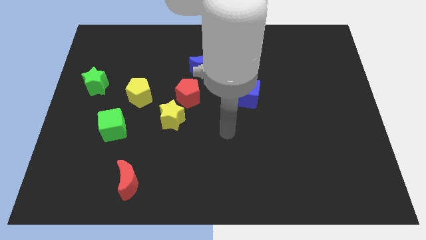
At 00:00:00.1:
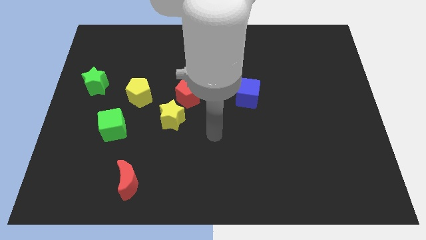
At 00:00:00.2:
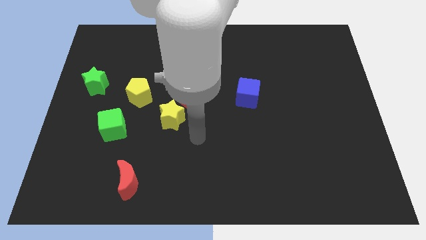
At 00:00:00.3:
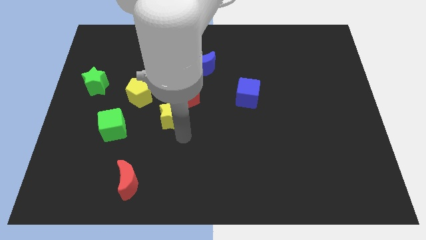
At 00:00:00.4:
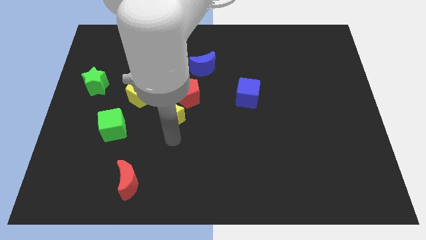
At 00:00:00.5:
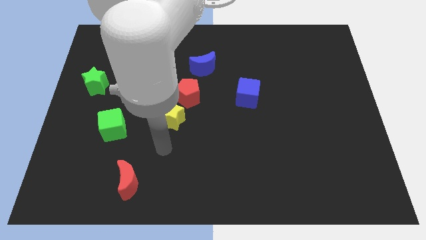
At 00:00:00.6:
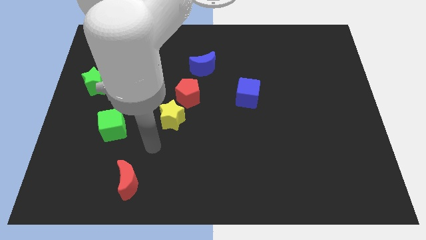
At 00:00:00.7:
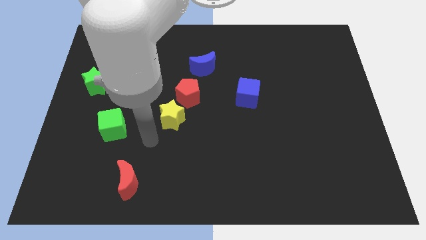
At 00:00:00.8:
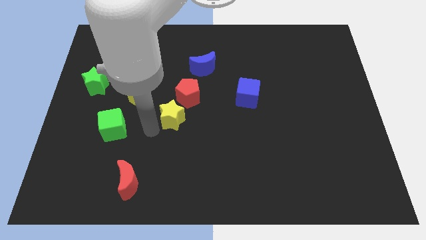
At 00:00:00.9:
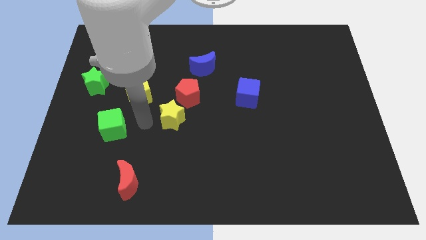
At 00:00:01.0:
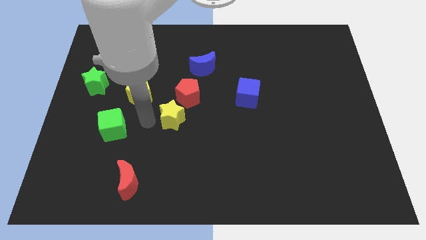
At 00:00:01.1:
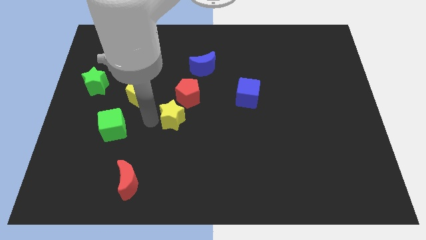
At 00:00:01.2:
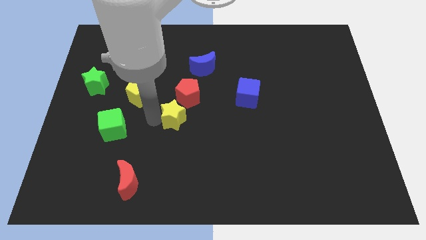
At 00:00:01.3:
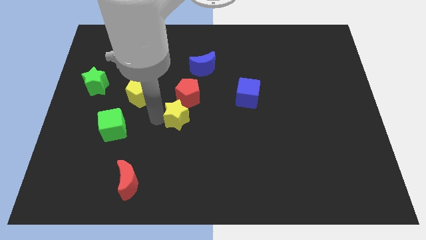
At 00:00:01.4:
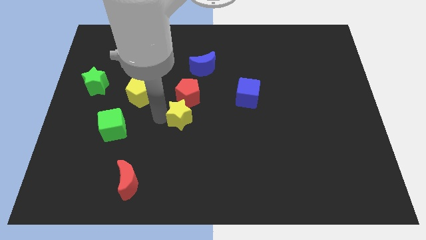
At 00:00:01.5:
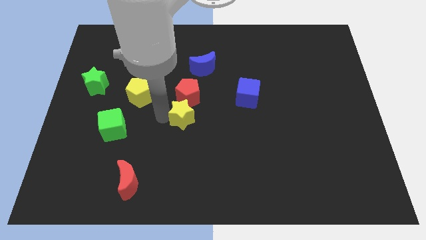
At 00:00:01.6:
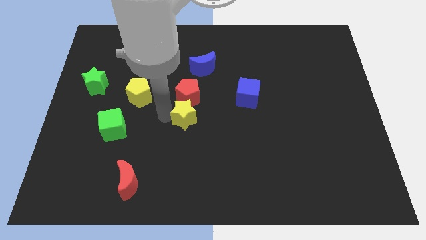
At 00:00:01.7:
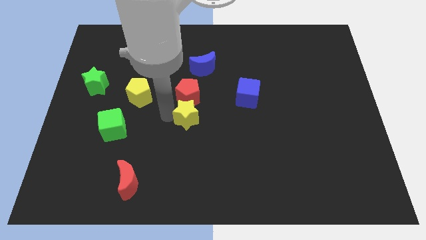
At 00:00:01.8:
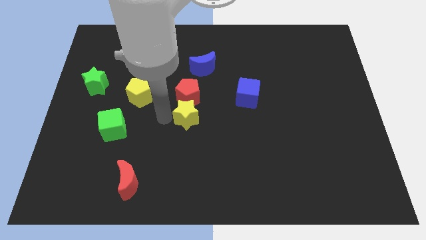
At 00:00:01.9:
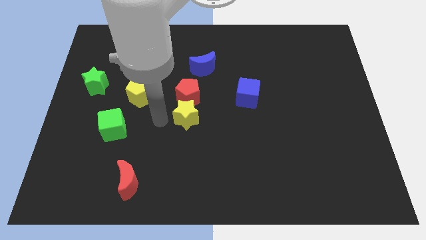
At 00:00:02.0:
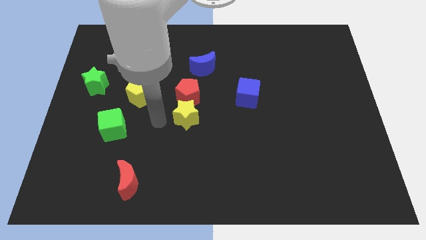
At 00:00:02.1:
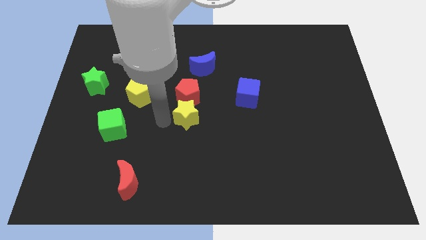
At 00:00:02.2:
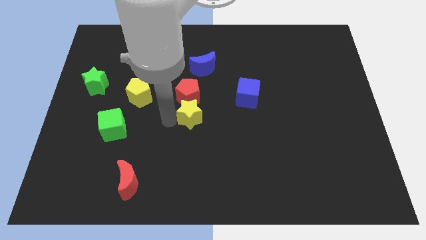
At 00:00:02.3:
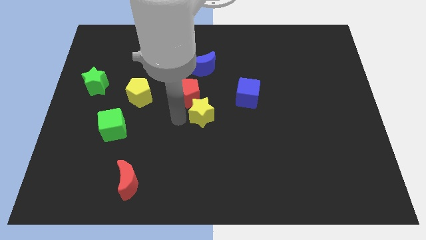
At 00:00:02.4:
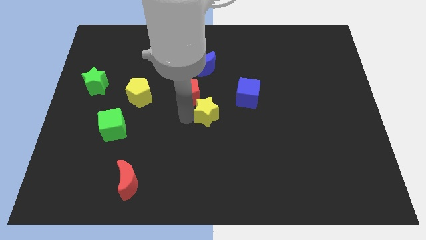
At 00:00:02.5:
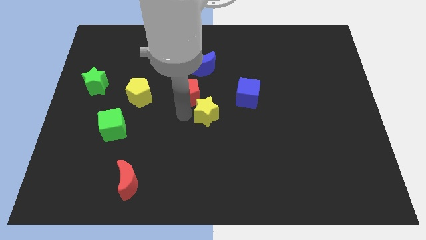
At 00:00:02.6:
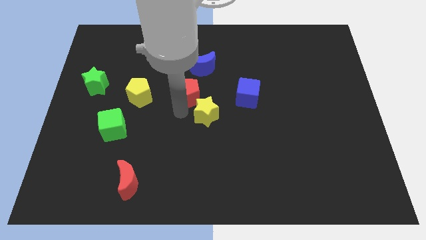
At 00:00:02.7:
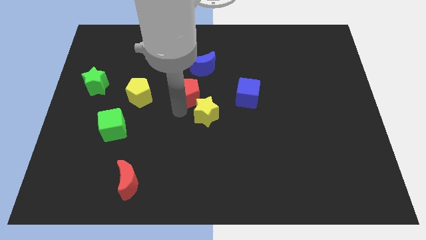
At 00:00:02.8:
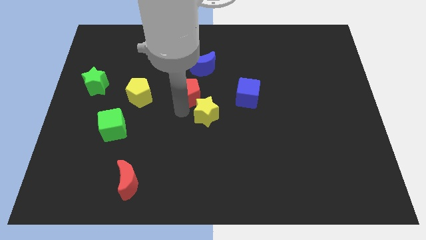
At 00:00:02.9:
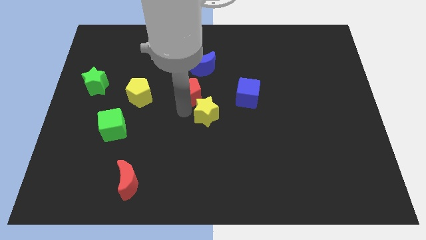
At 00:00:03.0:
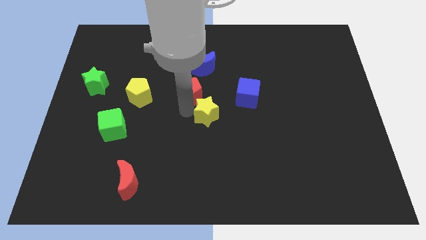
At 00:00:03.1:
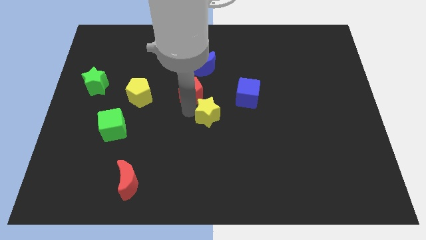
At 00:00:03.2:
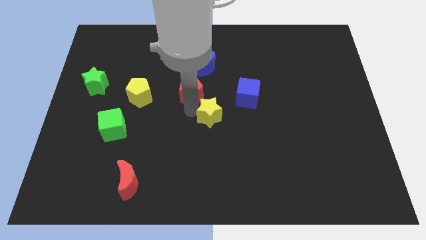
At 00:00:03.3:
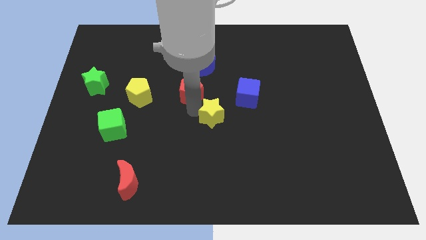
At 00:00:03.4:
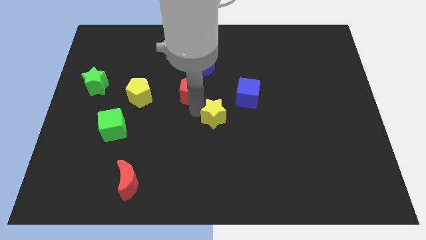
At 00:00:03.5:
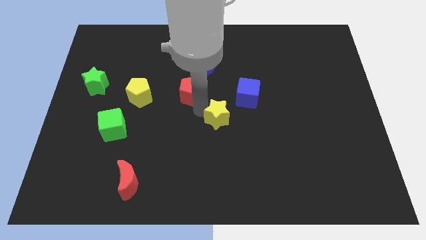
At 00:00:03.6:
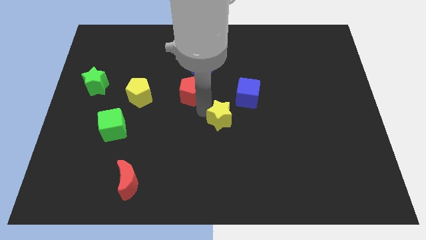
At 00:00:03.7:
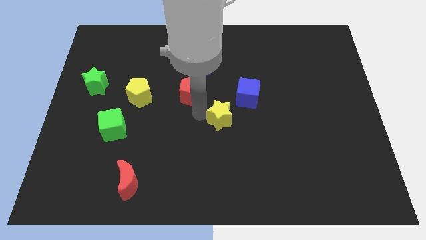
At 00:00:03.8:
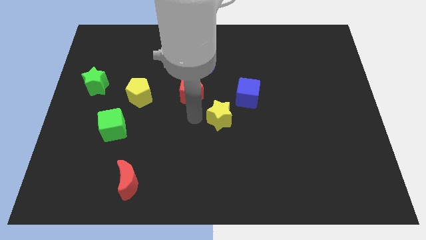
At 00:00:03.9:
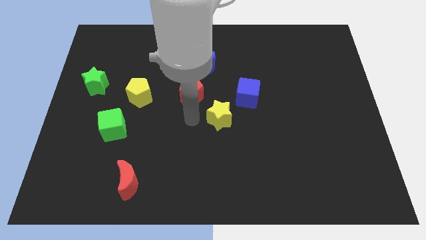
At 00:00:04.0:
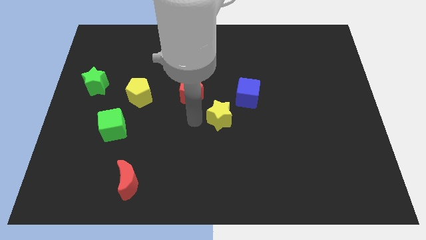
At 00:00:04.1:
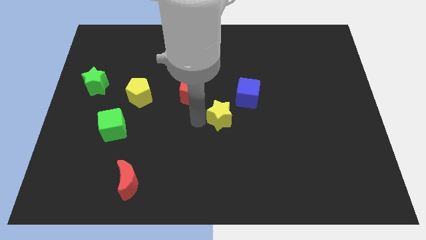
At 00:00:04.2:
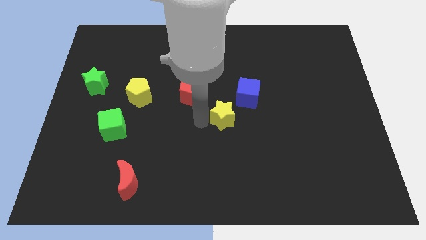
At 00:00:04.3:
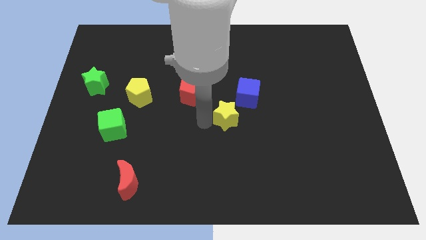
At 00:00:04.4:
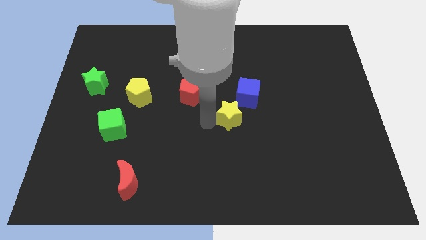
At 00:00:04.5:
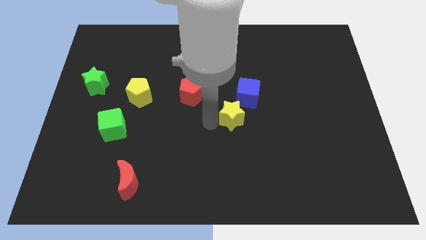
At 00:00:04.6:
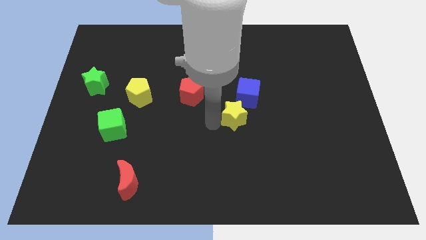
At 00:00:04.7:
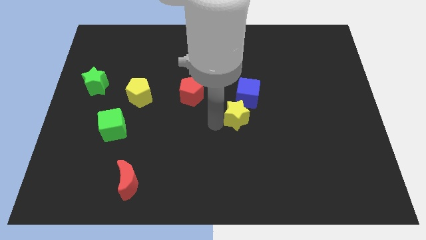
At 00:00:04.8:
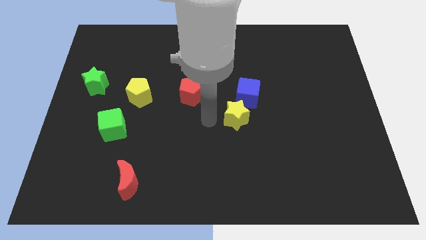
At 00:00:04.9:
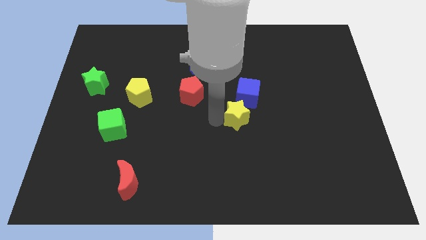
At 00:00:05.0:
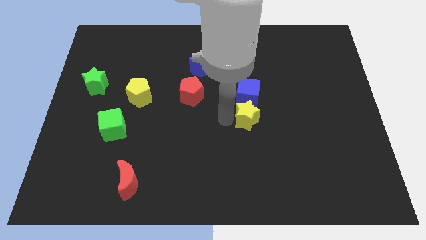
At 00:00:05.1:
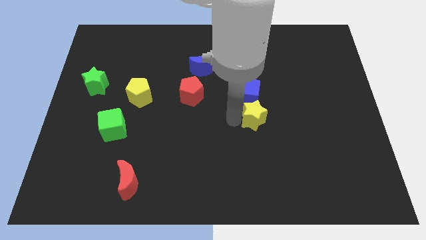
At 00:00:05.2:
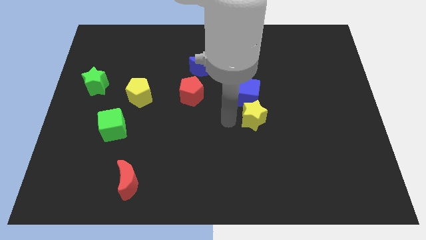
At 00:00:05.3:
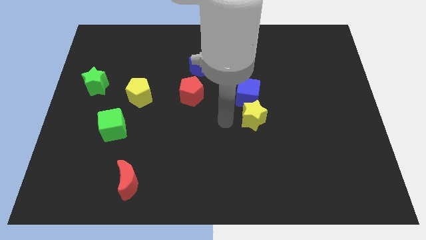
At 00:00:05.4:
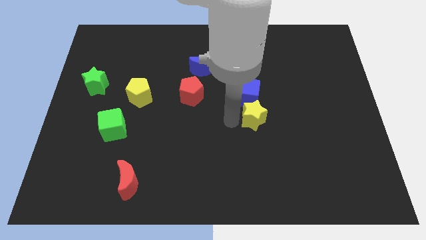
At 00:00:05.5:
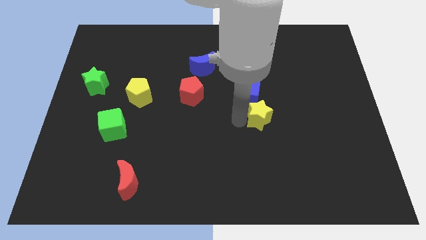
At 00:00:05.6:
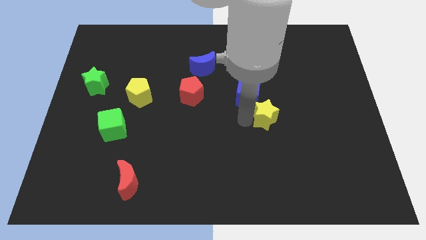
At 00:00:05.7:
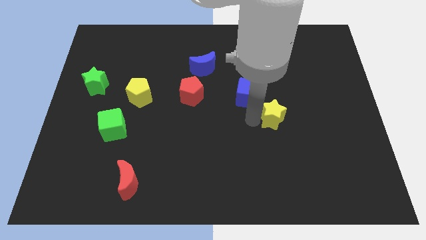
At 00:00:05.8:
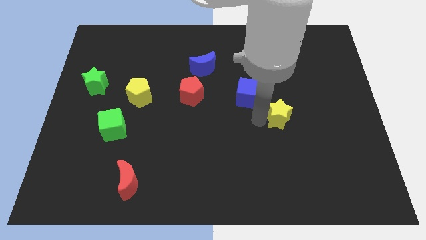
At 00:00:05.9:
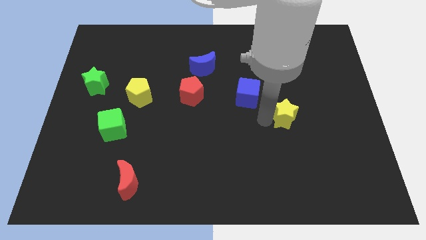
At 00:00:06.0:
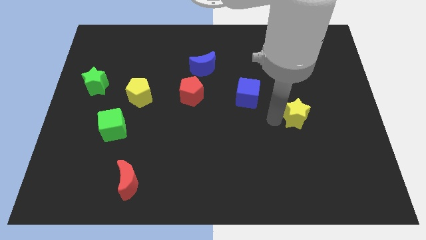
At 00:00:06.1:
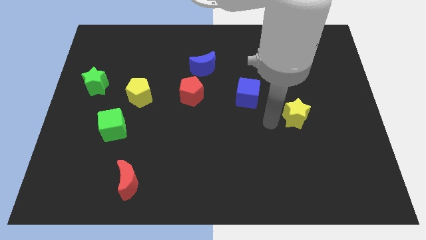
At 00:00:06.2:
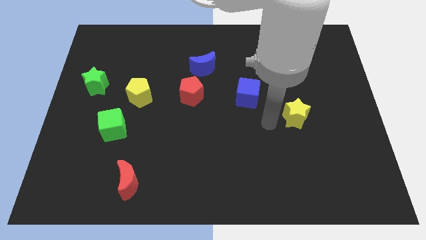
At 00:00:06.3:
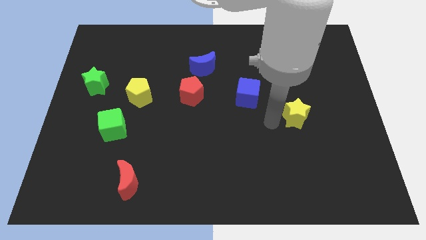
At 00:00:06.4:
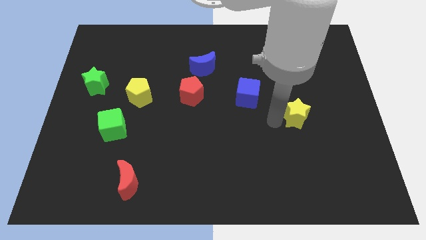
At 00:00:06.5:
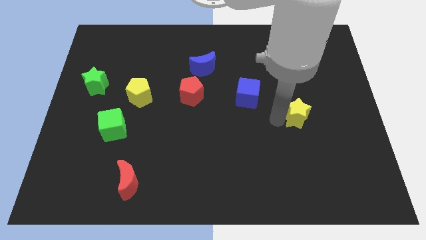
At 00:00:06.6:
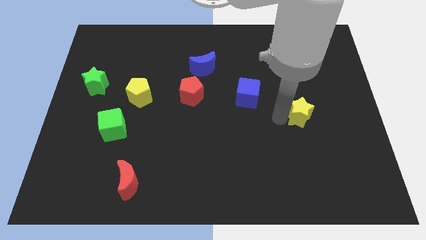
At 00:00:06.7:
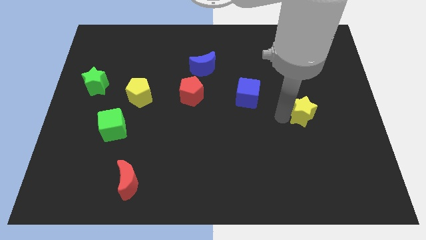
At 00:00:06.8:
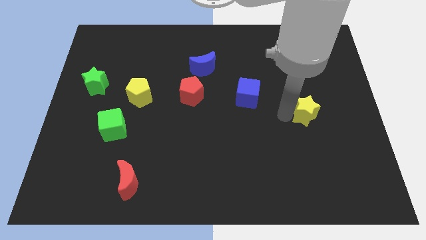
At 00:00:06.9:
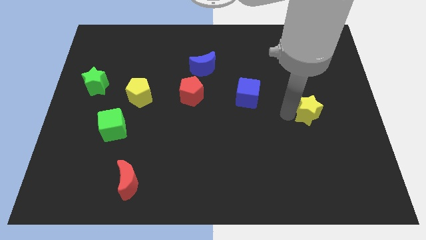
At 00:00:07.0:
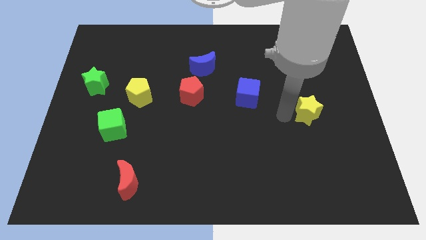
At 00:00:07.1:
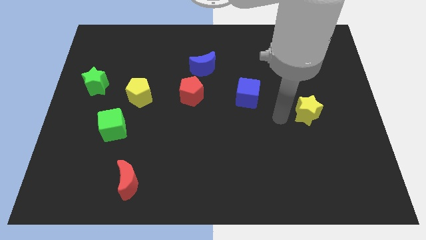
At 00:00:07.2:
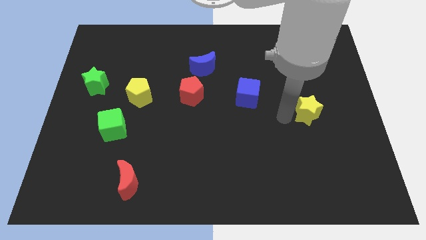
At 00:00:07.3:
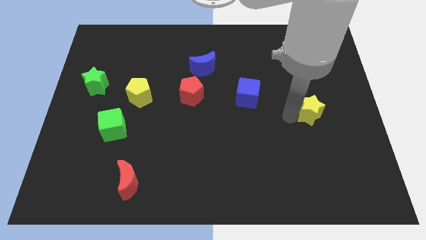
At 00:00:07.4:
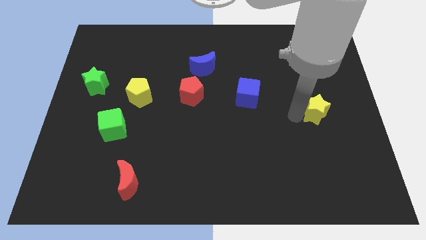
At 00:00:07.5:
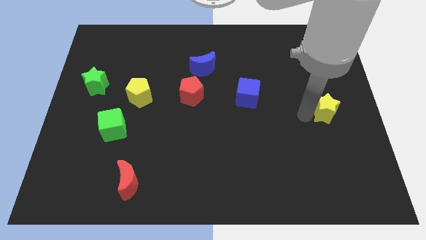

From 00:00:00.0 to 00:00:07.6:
move the yellow star to the center right
